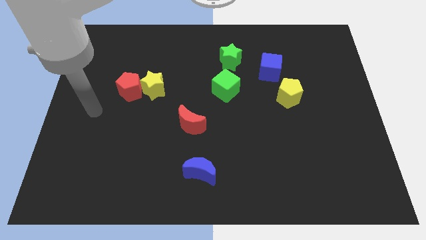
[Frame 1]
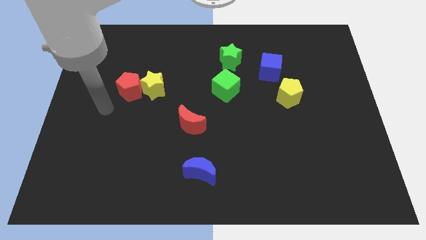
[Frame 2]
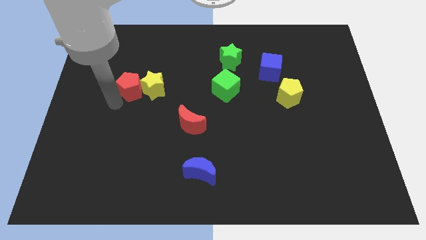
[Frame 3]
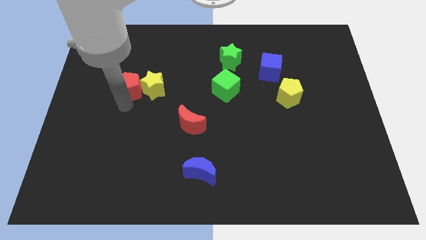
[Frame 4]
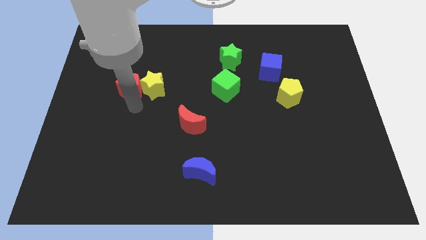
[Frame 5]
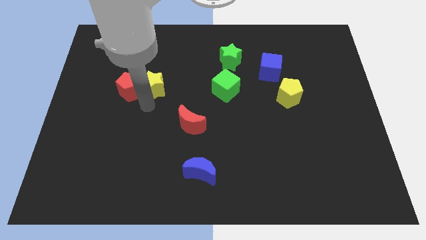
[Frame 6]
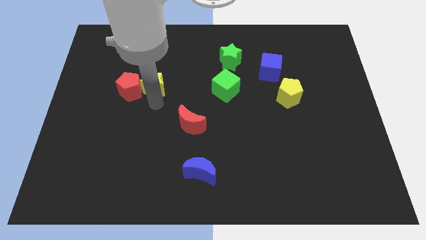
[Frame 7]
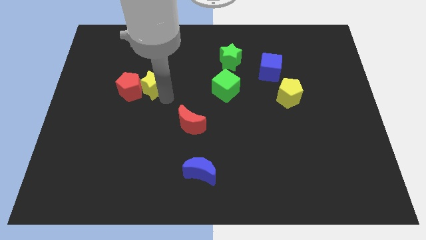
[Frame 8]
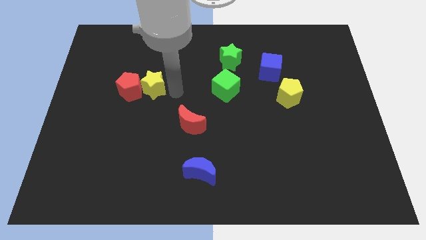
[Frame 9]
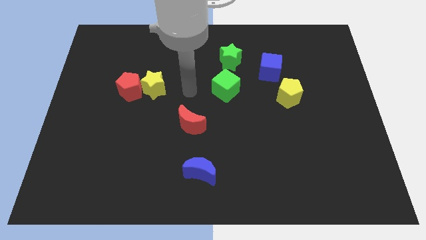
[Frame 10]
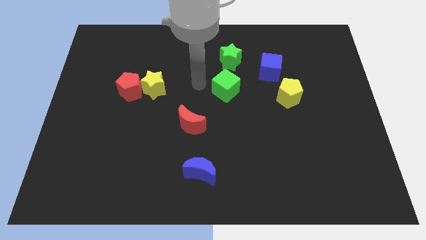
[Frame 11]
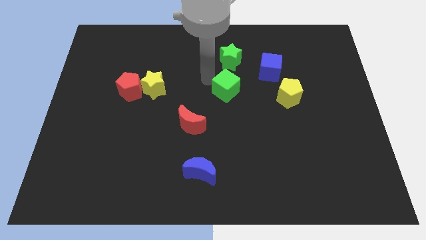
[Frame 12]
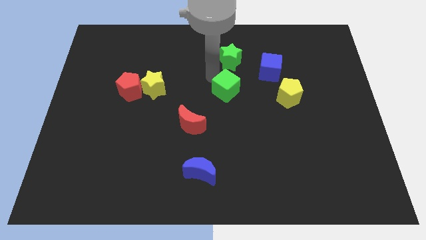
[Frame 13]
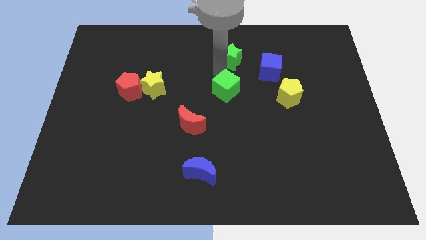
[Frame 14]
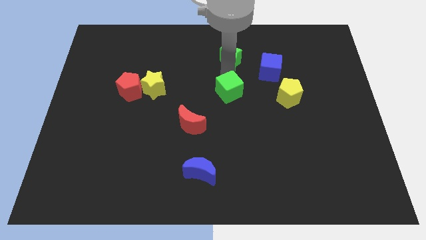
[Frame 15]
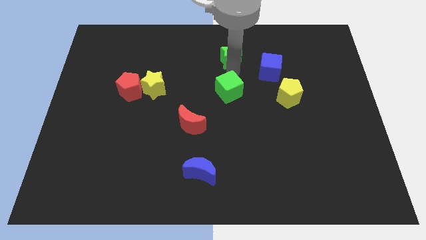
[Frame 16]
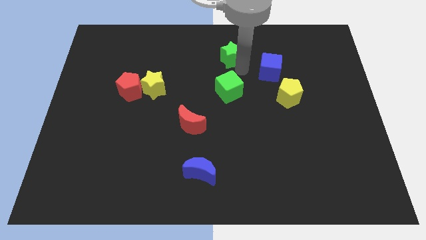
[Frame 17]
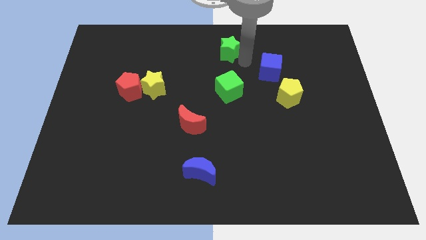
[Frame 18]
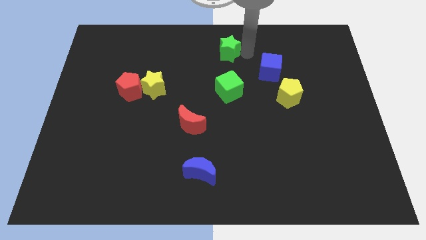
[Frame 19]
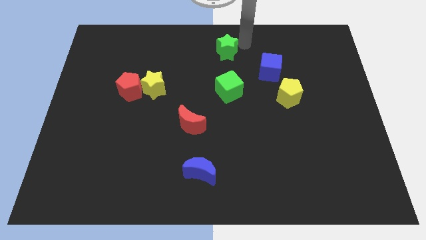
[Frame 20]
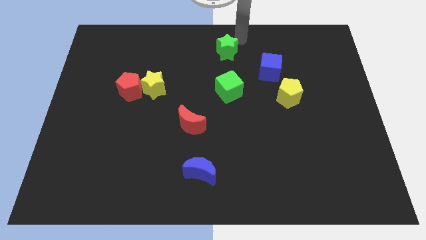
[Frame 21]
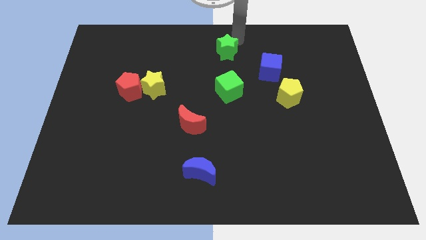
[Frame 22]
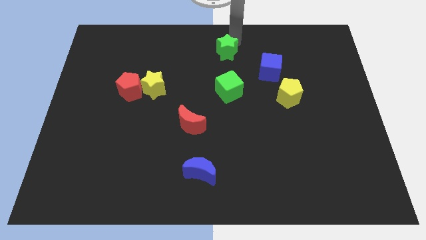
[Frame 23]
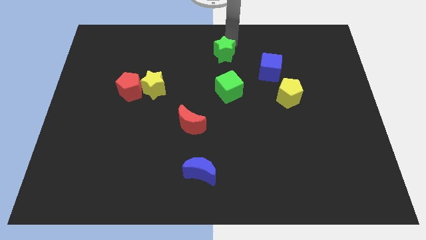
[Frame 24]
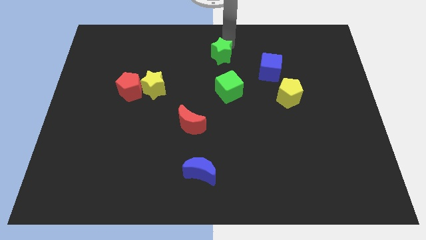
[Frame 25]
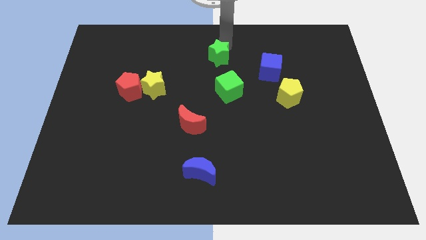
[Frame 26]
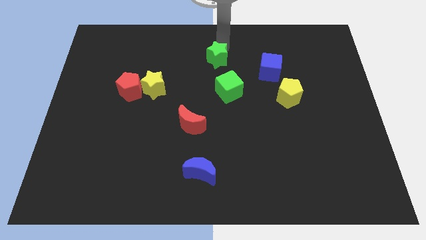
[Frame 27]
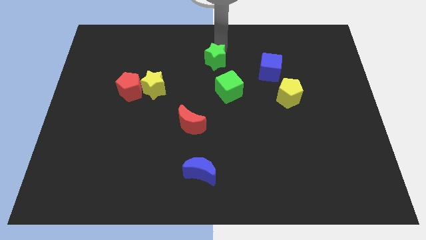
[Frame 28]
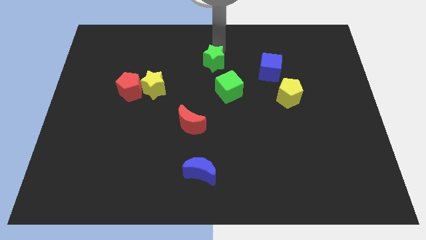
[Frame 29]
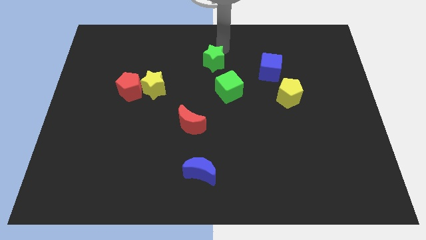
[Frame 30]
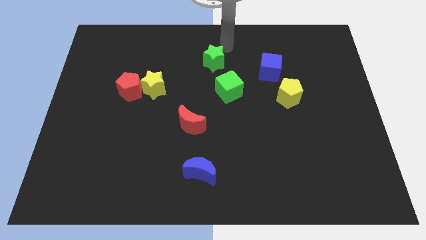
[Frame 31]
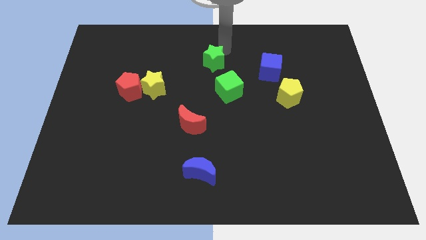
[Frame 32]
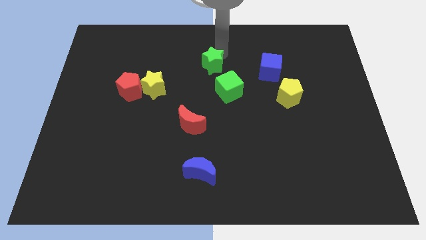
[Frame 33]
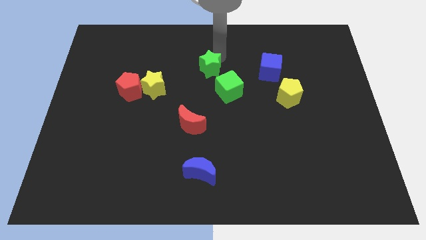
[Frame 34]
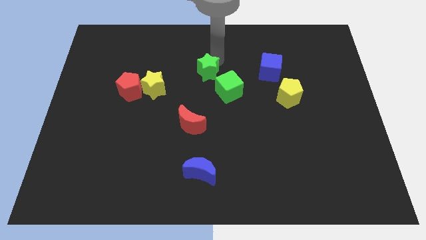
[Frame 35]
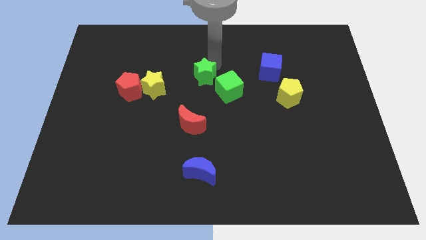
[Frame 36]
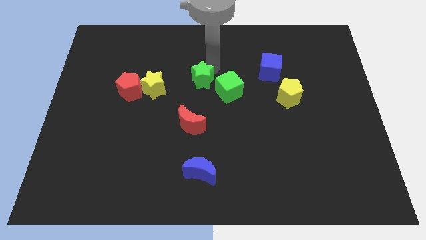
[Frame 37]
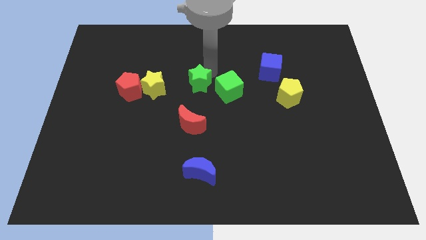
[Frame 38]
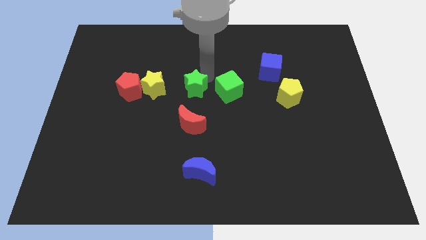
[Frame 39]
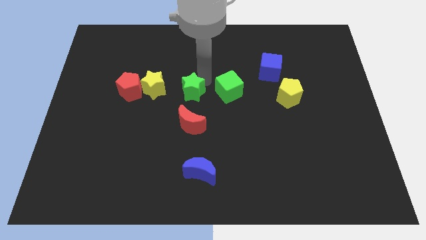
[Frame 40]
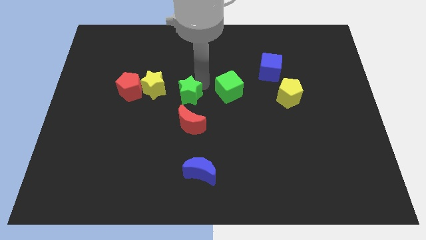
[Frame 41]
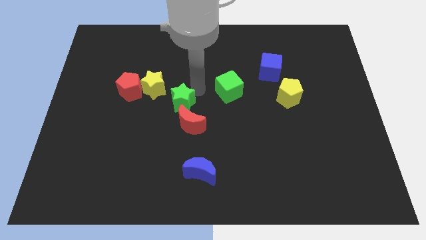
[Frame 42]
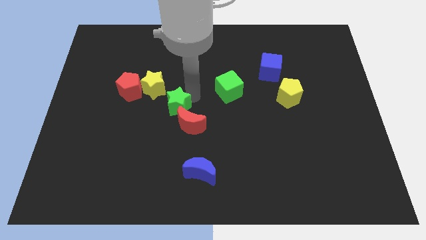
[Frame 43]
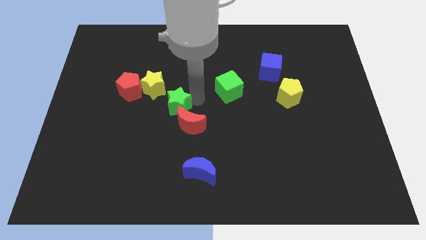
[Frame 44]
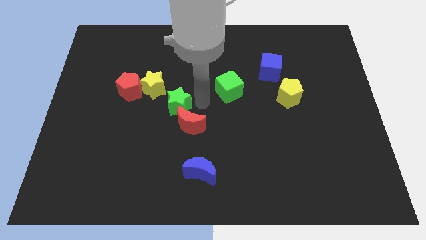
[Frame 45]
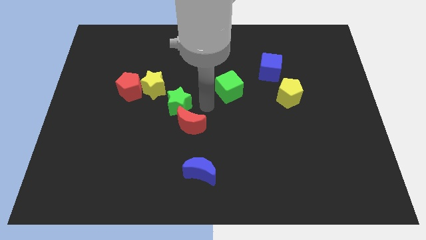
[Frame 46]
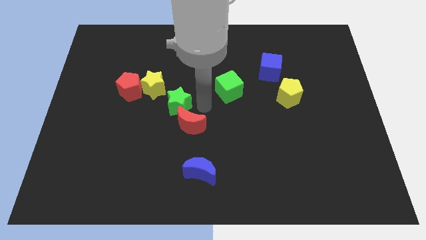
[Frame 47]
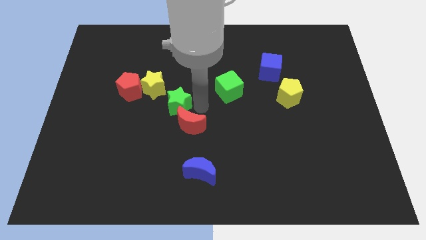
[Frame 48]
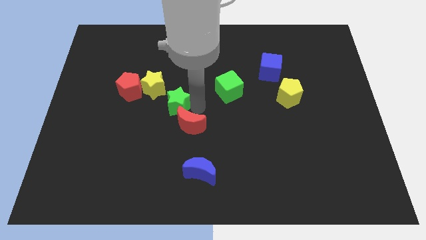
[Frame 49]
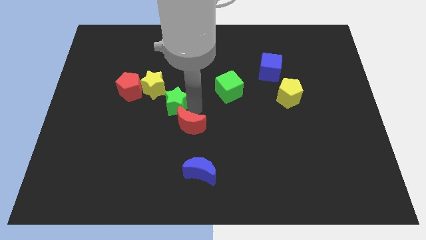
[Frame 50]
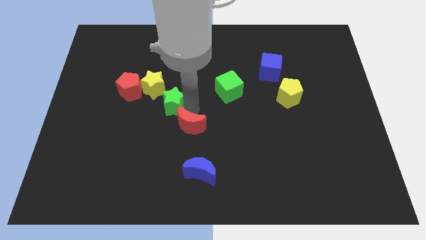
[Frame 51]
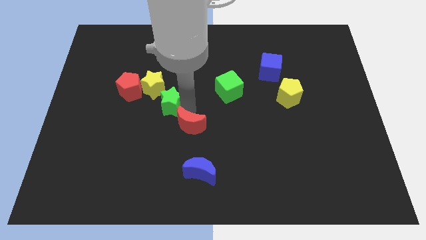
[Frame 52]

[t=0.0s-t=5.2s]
slide the green star to the bottom right side of the red pentagon

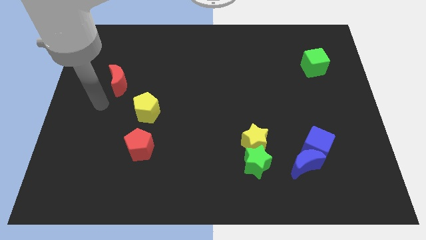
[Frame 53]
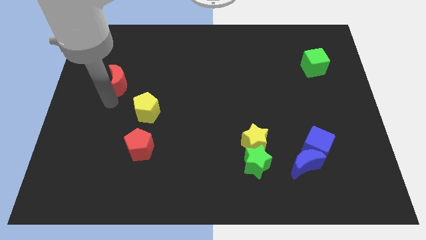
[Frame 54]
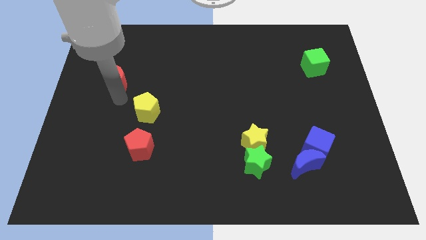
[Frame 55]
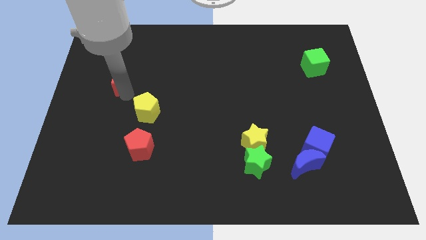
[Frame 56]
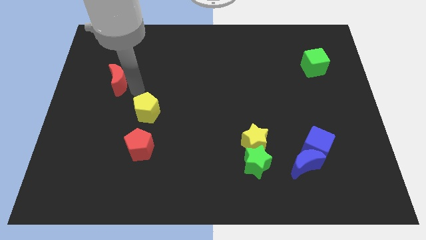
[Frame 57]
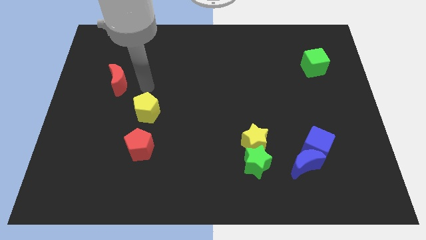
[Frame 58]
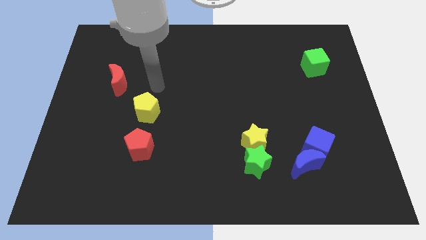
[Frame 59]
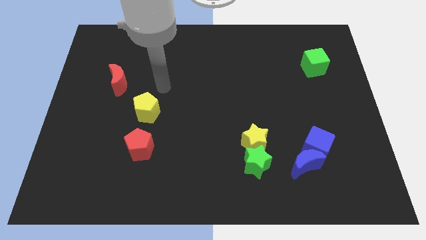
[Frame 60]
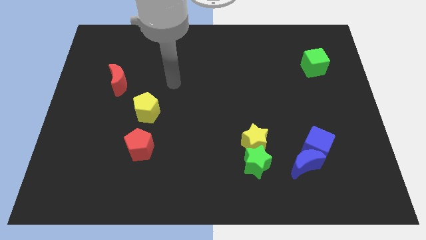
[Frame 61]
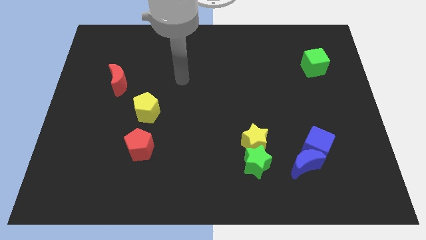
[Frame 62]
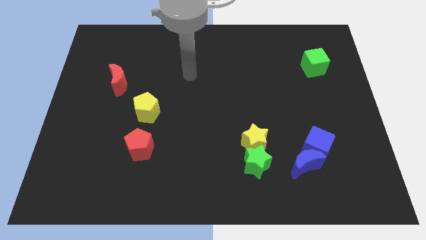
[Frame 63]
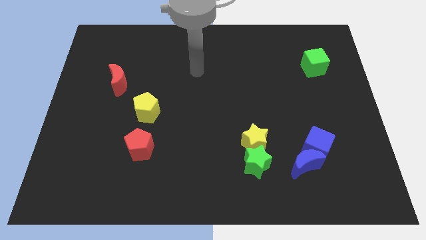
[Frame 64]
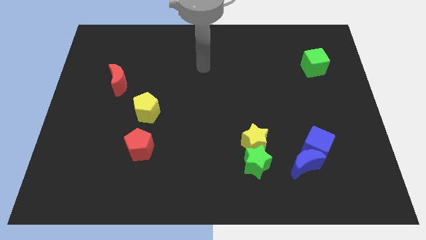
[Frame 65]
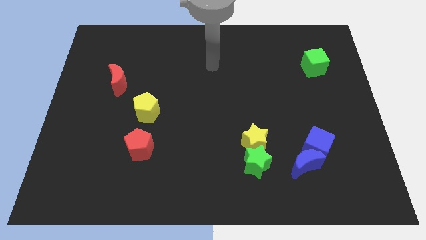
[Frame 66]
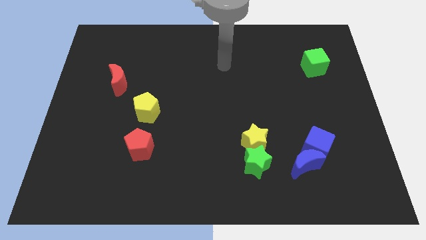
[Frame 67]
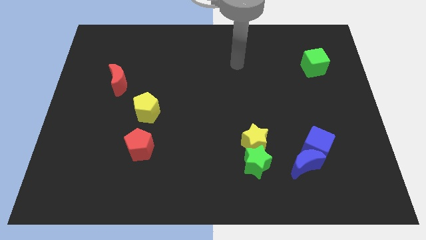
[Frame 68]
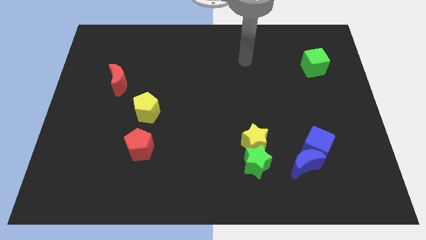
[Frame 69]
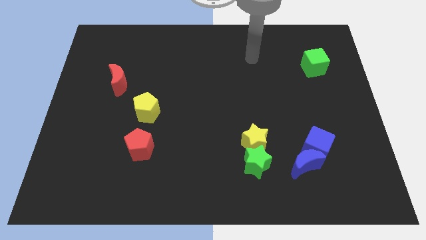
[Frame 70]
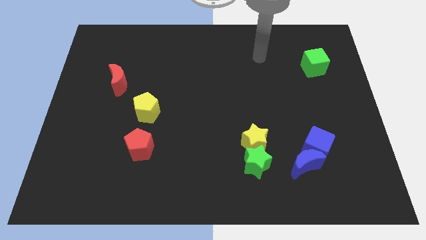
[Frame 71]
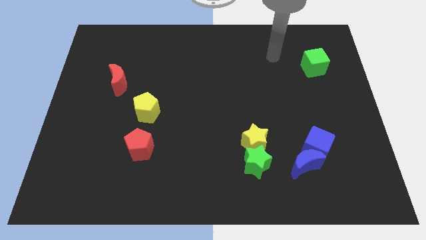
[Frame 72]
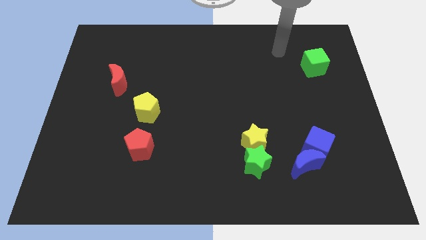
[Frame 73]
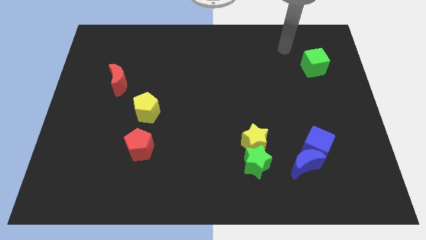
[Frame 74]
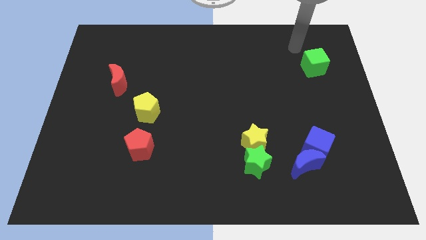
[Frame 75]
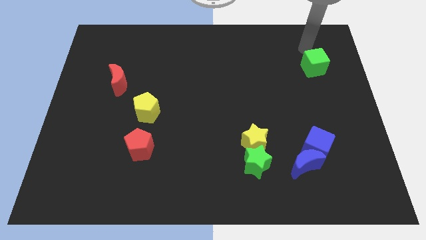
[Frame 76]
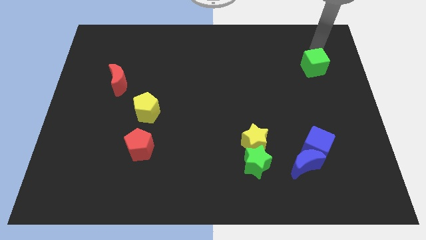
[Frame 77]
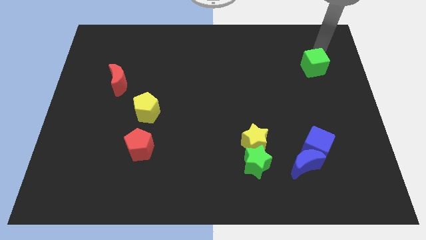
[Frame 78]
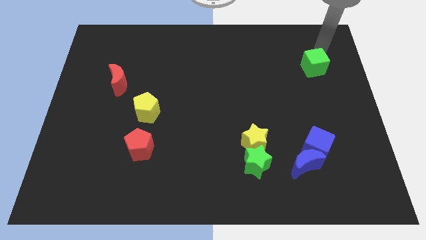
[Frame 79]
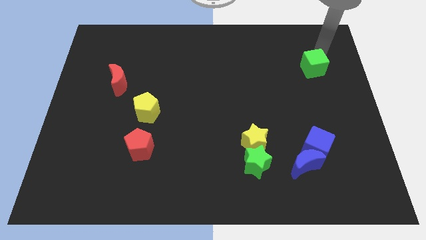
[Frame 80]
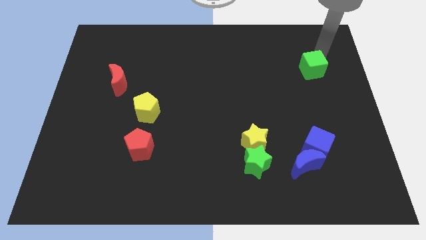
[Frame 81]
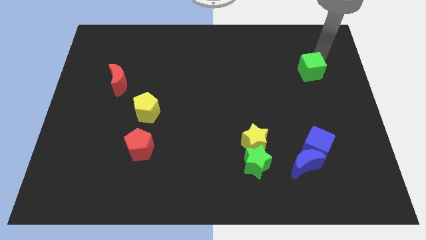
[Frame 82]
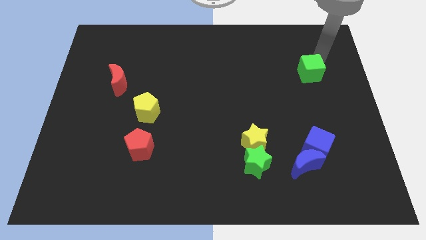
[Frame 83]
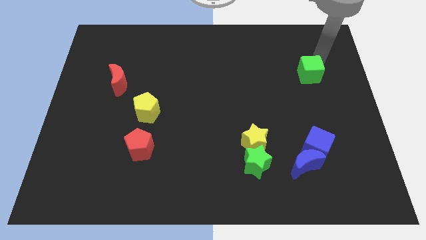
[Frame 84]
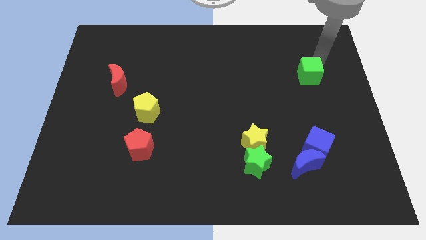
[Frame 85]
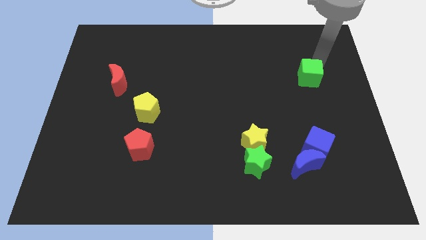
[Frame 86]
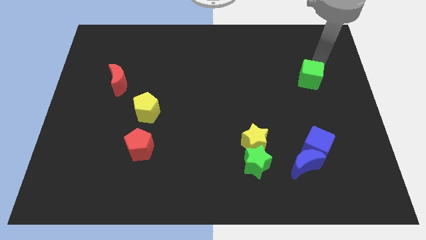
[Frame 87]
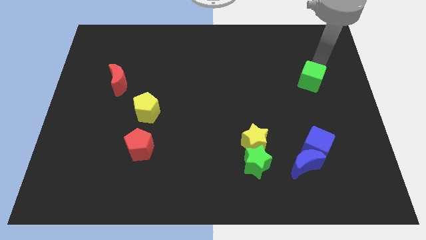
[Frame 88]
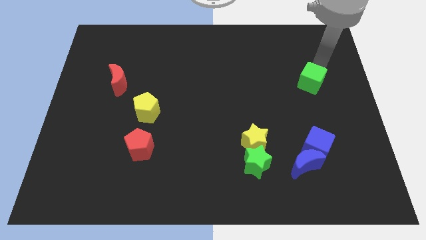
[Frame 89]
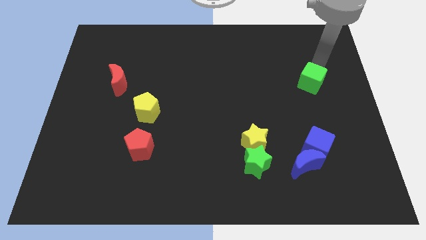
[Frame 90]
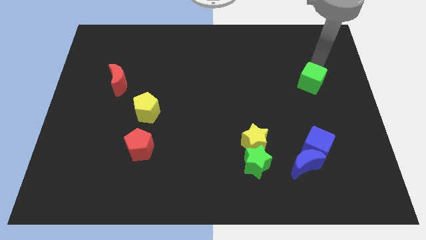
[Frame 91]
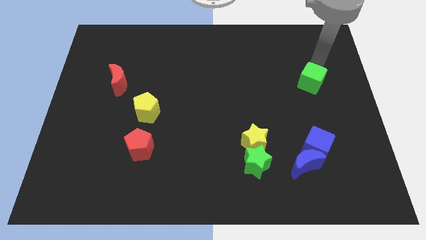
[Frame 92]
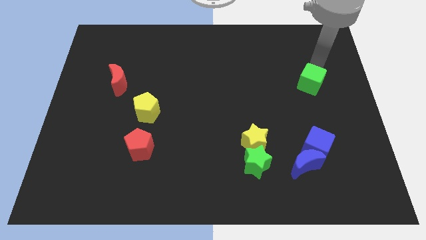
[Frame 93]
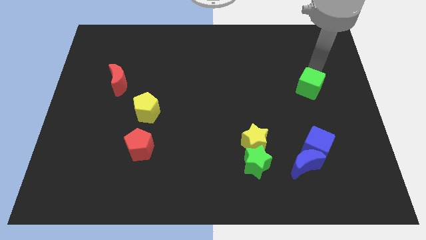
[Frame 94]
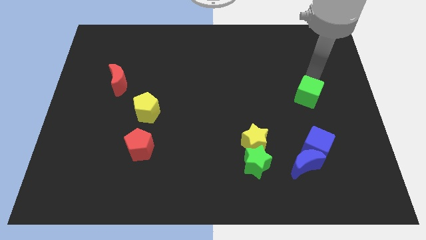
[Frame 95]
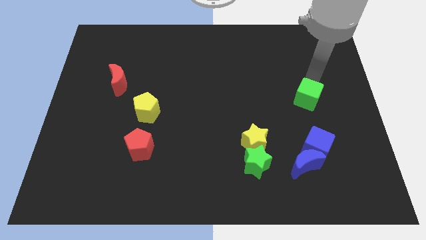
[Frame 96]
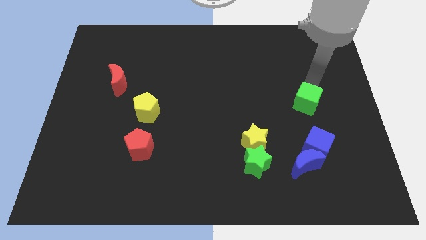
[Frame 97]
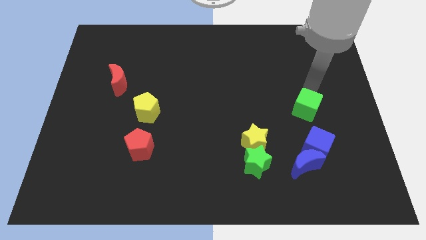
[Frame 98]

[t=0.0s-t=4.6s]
put the green cube above the blue moon
